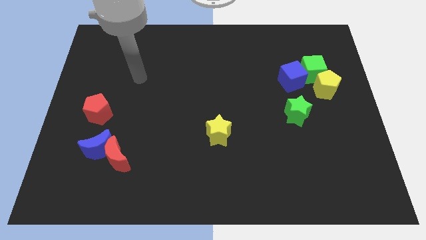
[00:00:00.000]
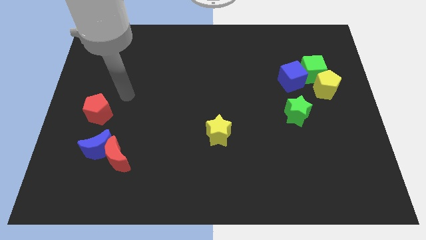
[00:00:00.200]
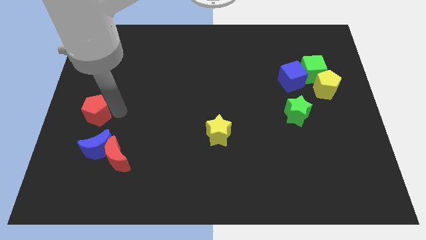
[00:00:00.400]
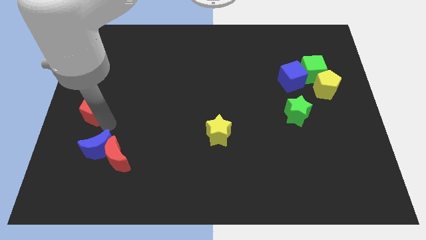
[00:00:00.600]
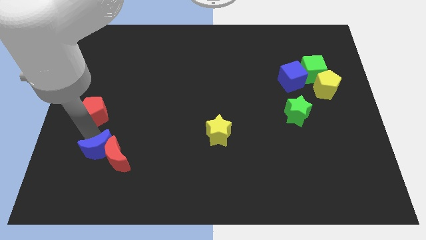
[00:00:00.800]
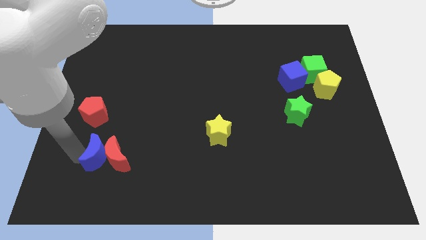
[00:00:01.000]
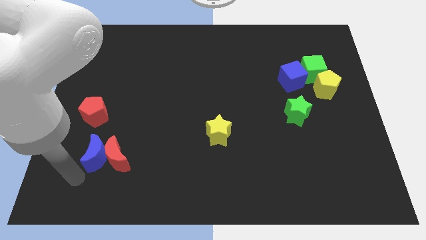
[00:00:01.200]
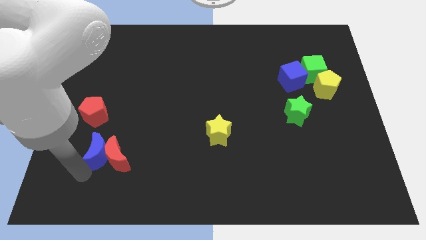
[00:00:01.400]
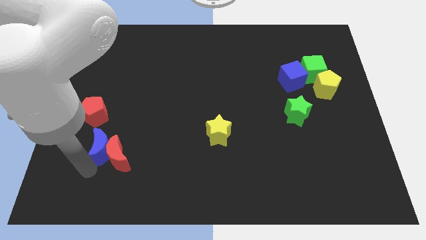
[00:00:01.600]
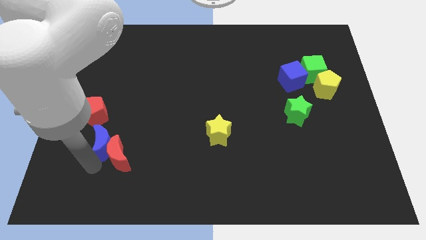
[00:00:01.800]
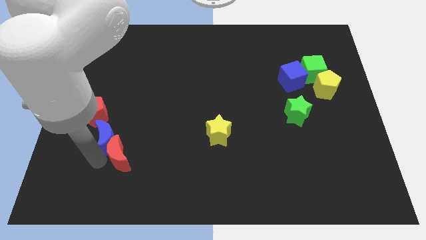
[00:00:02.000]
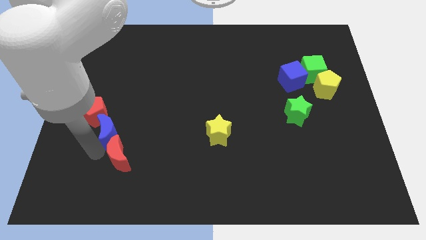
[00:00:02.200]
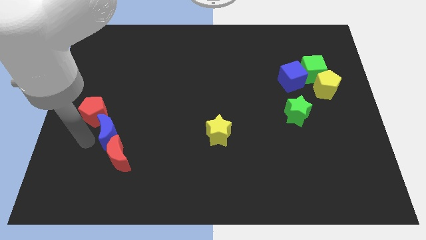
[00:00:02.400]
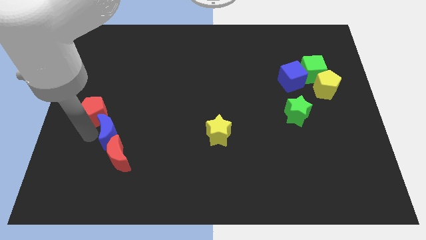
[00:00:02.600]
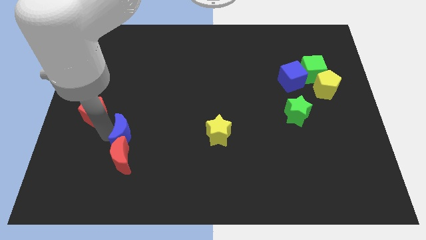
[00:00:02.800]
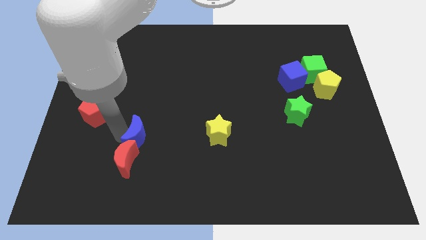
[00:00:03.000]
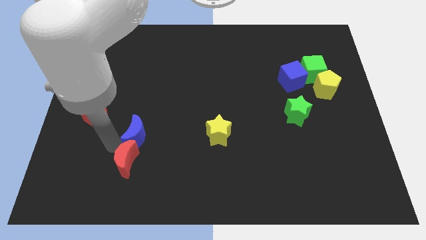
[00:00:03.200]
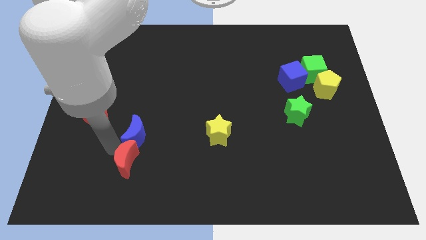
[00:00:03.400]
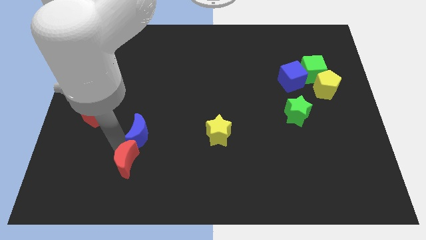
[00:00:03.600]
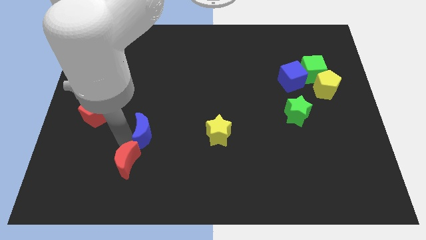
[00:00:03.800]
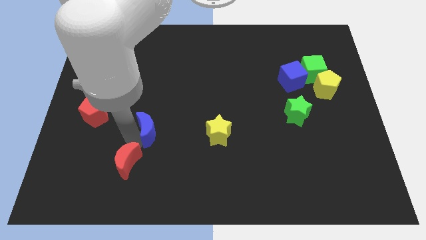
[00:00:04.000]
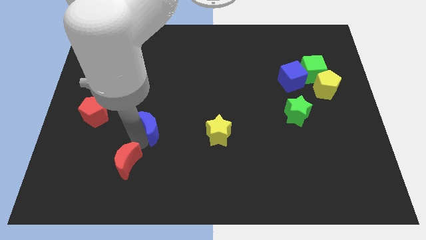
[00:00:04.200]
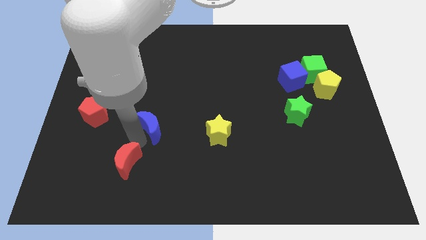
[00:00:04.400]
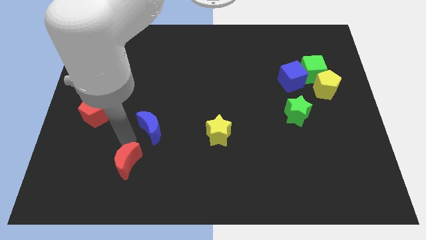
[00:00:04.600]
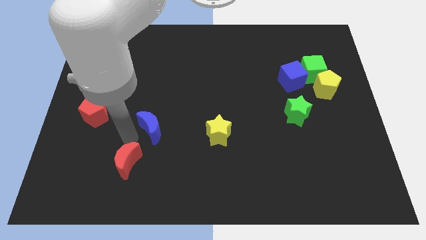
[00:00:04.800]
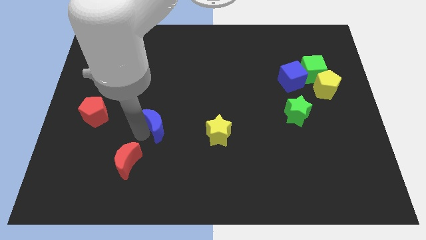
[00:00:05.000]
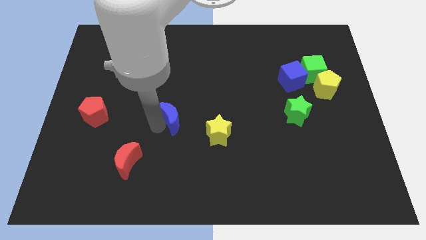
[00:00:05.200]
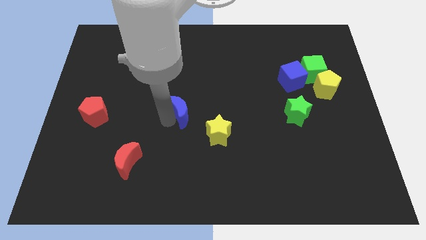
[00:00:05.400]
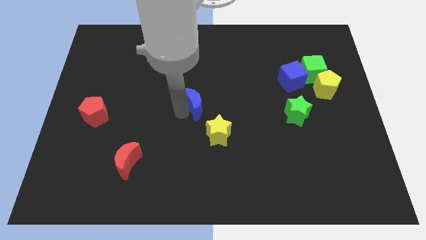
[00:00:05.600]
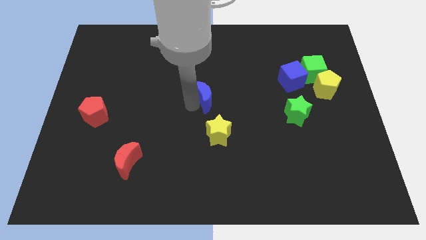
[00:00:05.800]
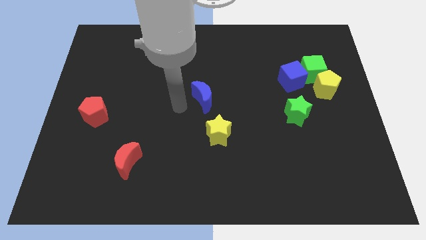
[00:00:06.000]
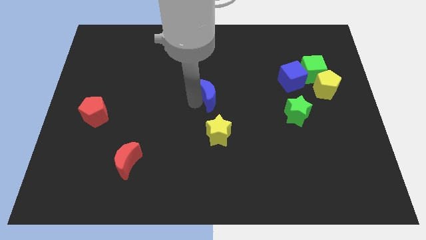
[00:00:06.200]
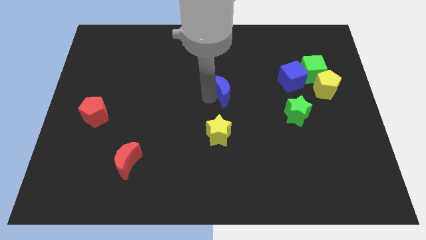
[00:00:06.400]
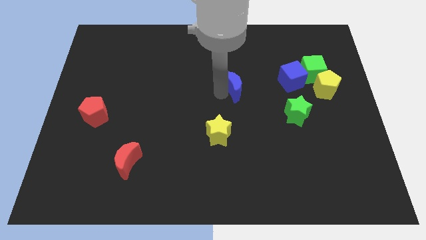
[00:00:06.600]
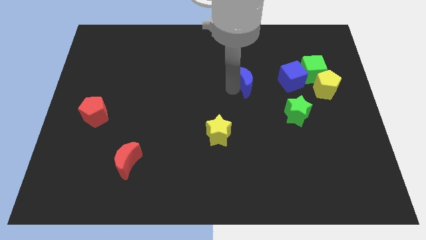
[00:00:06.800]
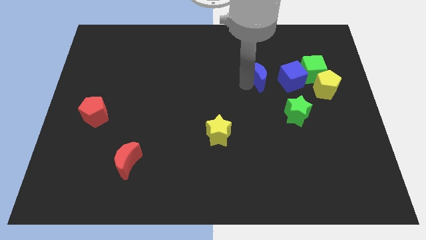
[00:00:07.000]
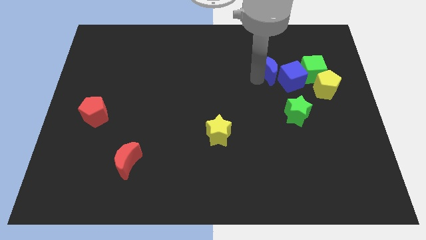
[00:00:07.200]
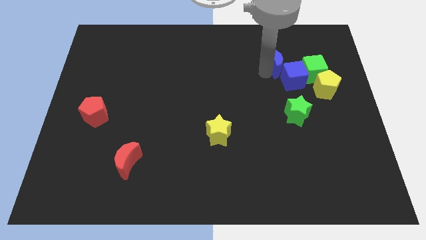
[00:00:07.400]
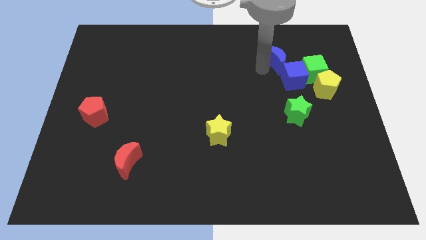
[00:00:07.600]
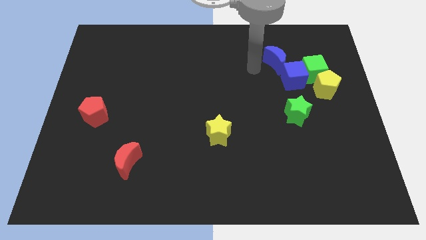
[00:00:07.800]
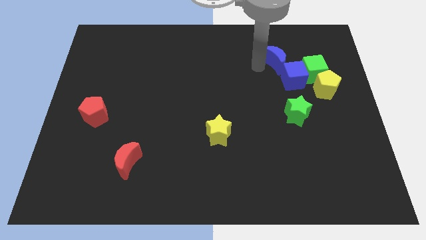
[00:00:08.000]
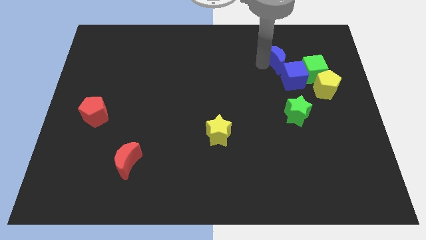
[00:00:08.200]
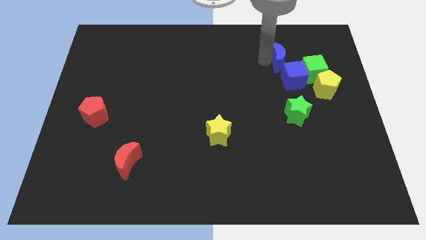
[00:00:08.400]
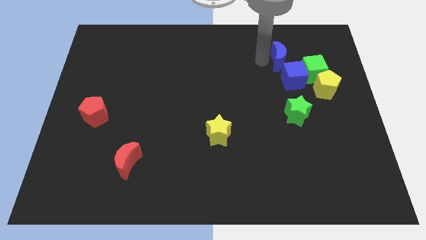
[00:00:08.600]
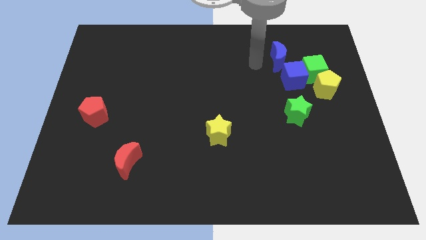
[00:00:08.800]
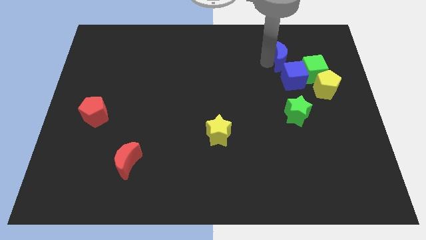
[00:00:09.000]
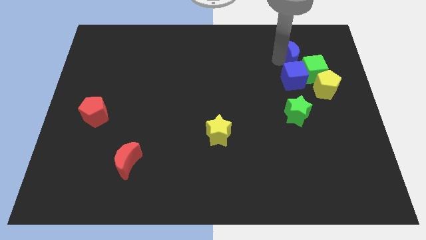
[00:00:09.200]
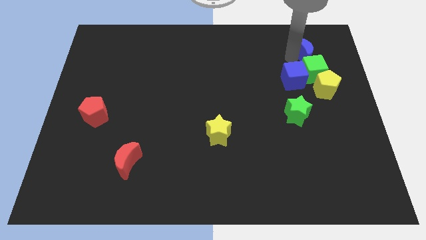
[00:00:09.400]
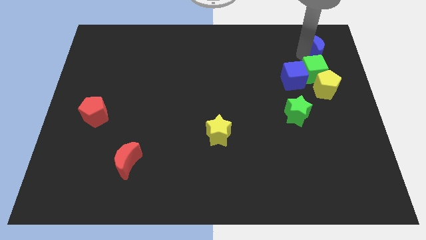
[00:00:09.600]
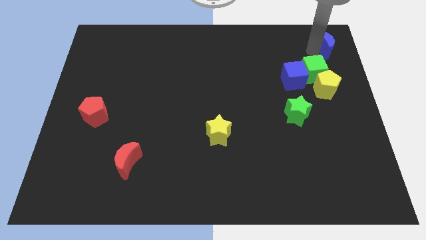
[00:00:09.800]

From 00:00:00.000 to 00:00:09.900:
push the blue moon to the top right

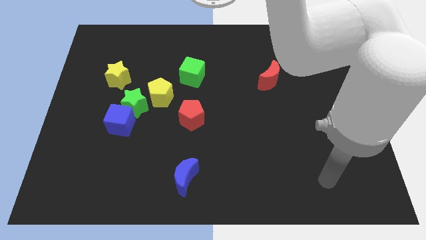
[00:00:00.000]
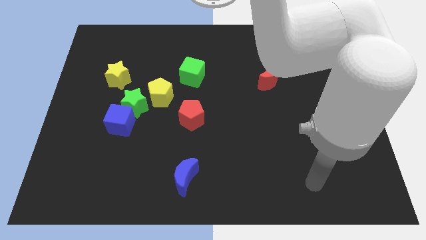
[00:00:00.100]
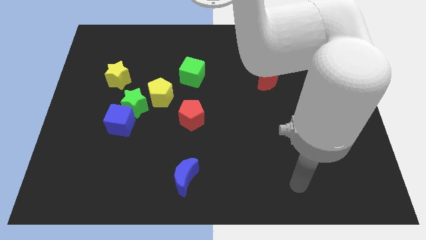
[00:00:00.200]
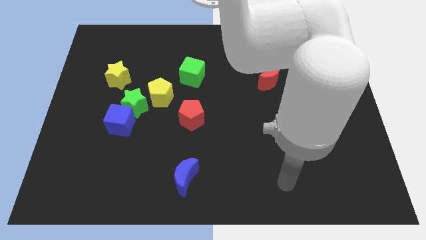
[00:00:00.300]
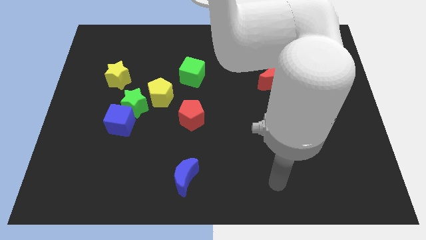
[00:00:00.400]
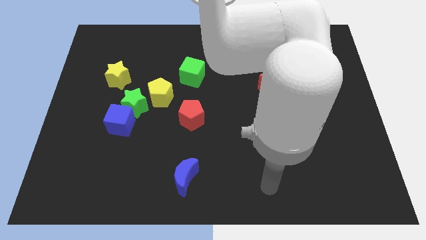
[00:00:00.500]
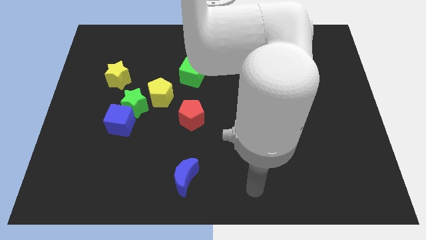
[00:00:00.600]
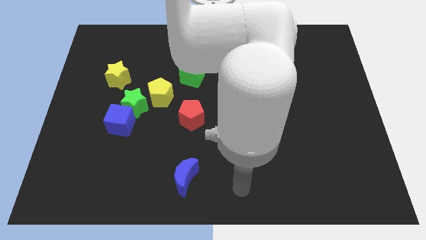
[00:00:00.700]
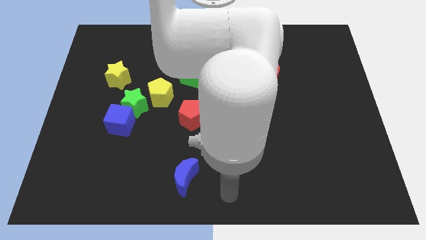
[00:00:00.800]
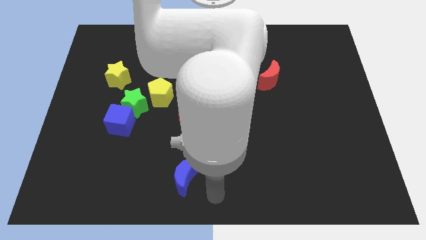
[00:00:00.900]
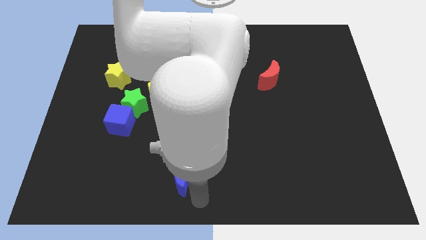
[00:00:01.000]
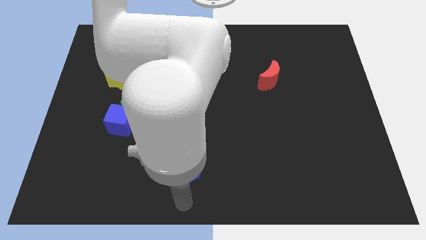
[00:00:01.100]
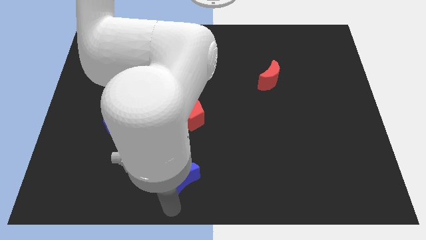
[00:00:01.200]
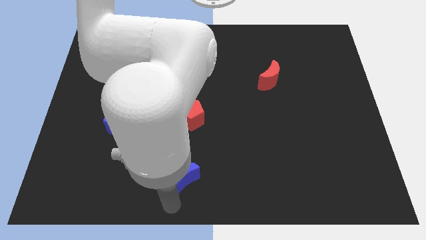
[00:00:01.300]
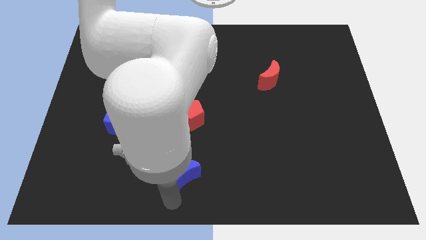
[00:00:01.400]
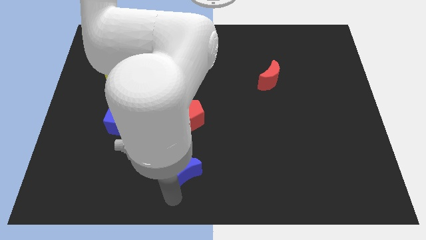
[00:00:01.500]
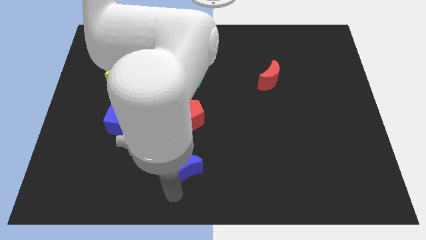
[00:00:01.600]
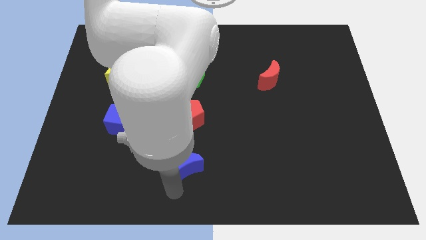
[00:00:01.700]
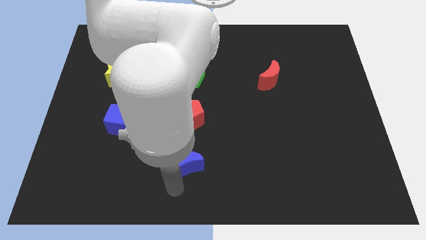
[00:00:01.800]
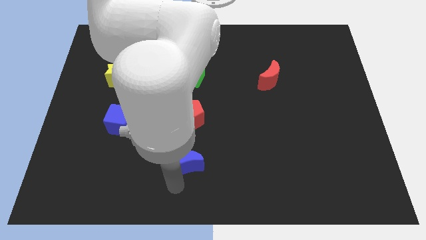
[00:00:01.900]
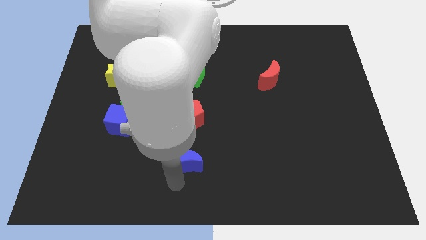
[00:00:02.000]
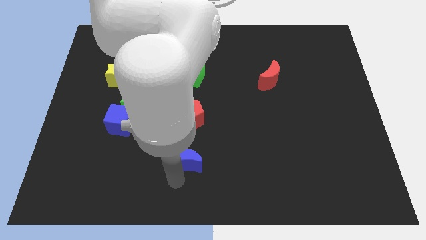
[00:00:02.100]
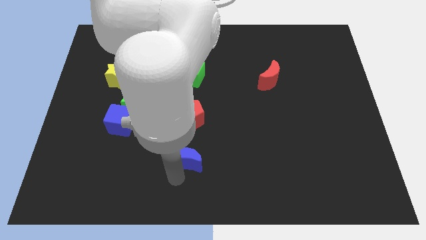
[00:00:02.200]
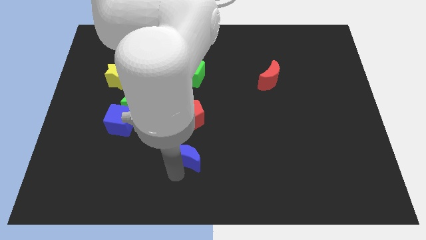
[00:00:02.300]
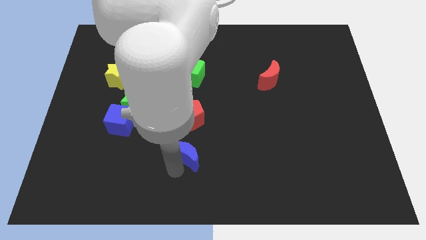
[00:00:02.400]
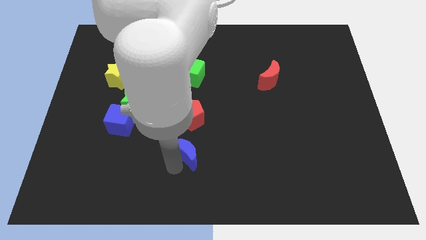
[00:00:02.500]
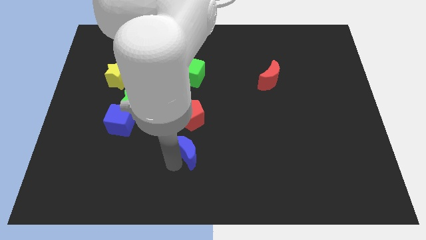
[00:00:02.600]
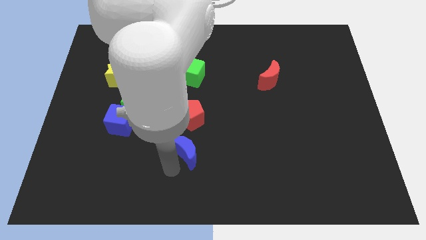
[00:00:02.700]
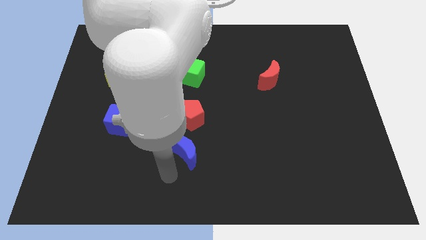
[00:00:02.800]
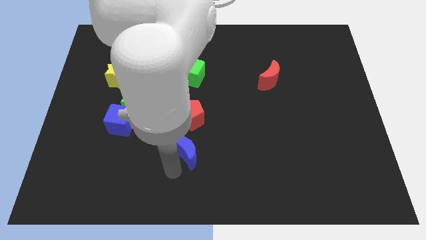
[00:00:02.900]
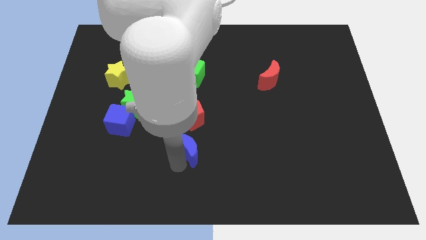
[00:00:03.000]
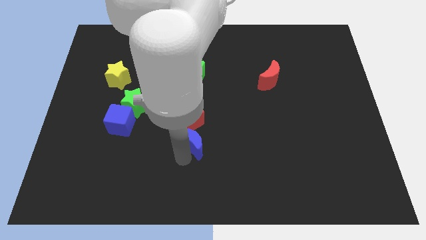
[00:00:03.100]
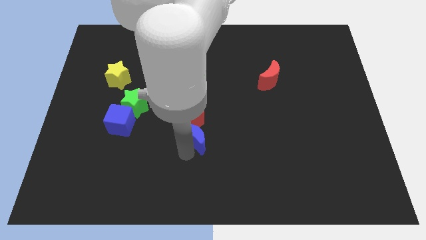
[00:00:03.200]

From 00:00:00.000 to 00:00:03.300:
push the blue moon to the center of the board
